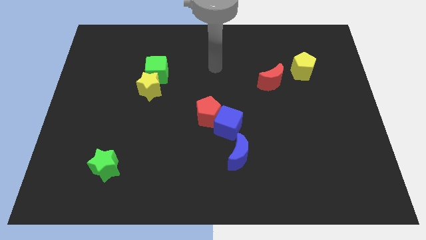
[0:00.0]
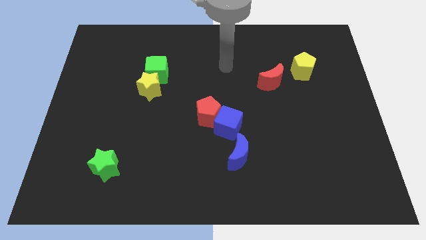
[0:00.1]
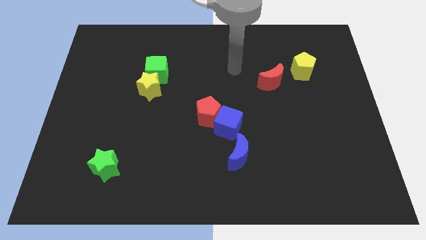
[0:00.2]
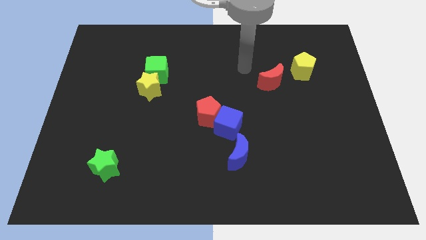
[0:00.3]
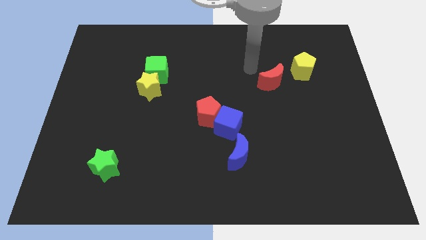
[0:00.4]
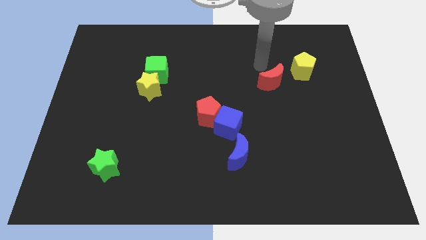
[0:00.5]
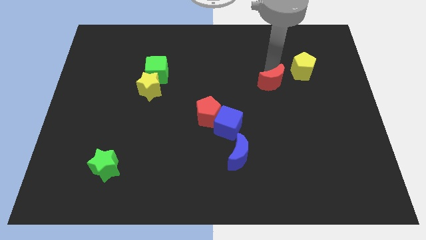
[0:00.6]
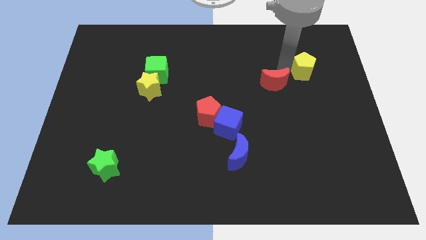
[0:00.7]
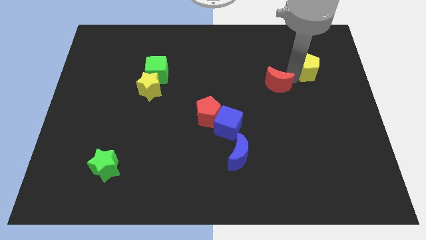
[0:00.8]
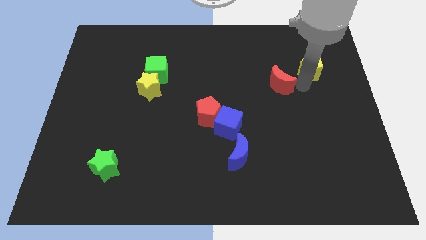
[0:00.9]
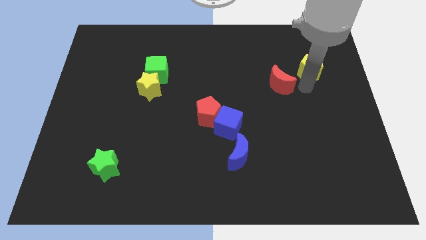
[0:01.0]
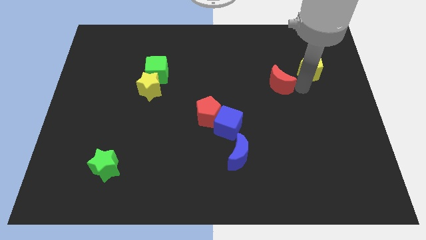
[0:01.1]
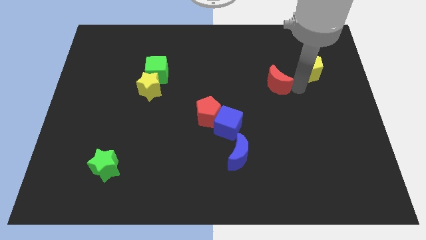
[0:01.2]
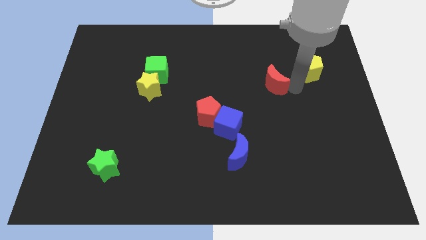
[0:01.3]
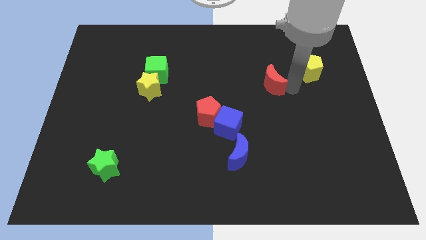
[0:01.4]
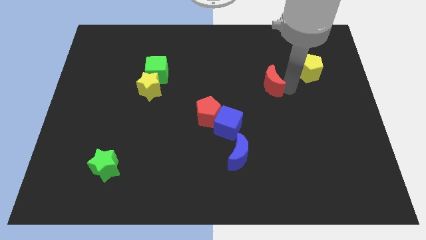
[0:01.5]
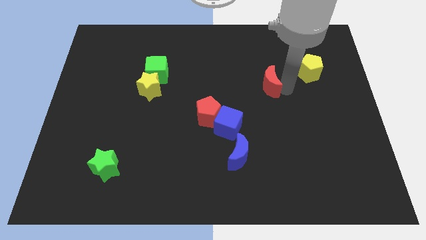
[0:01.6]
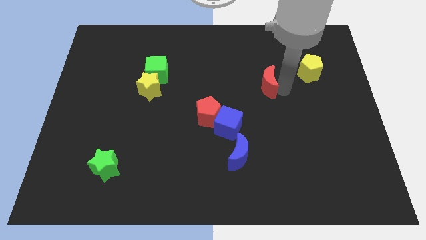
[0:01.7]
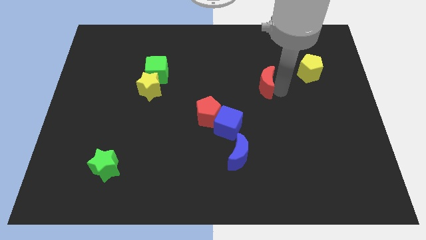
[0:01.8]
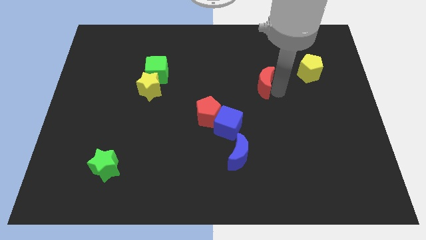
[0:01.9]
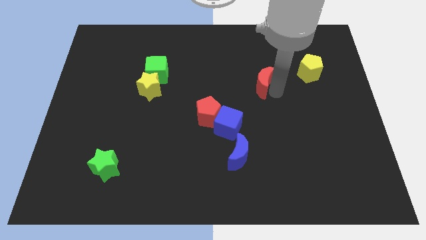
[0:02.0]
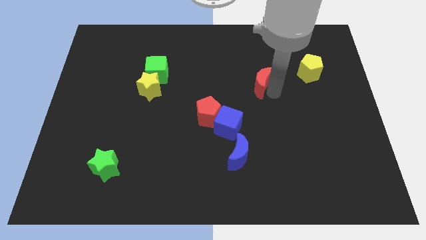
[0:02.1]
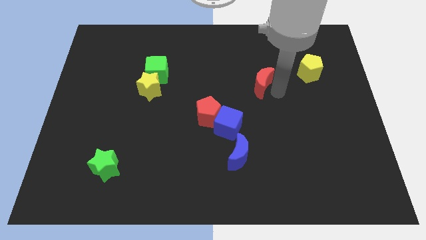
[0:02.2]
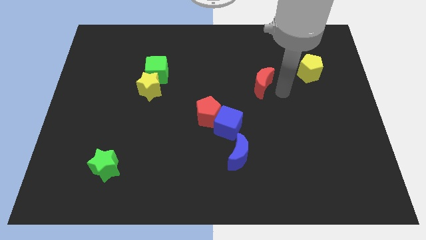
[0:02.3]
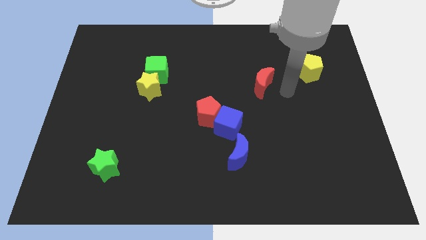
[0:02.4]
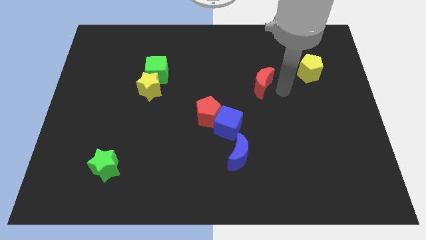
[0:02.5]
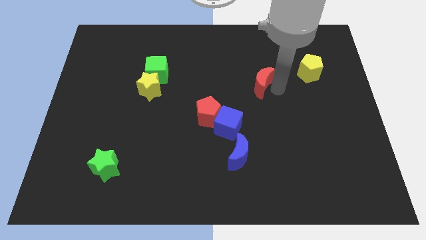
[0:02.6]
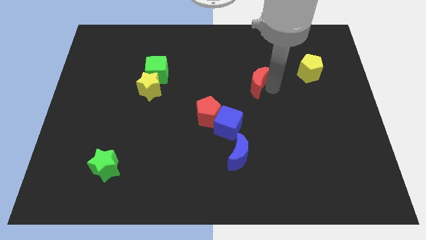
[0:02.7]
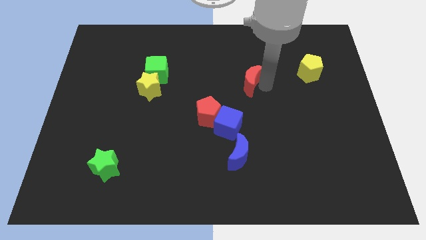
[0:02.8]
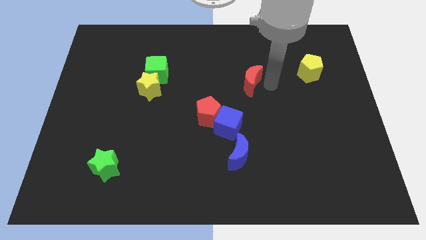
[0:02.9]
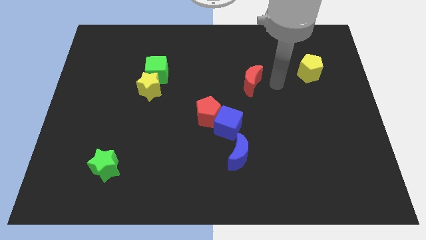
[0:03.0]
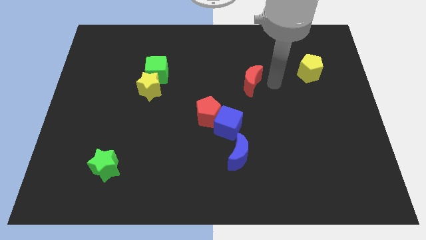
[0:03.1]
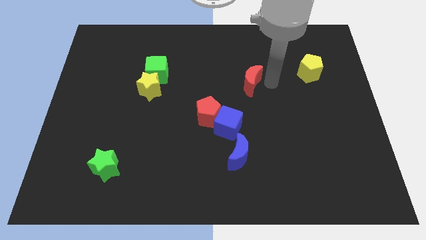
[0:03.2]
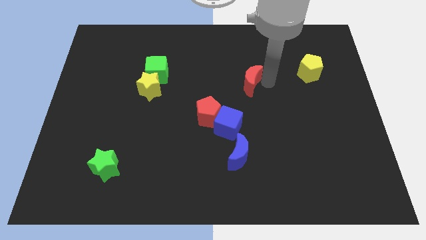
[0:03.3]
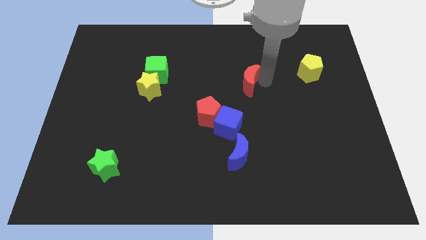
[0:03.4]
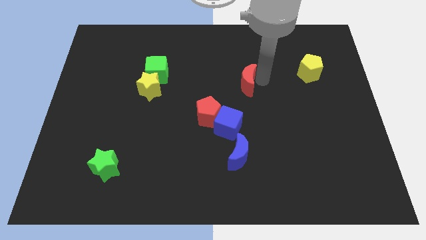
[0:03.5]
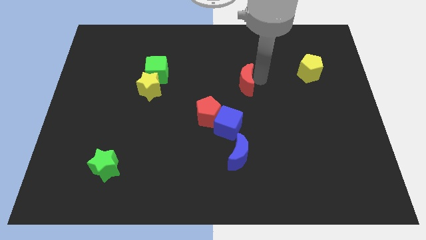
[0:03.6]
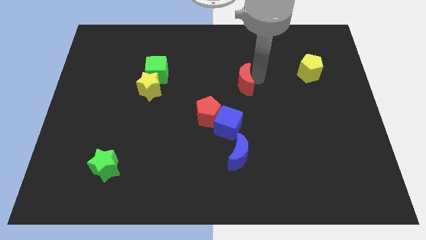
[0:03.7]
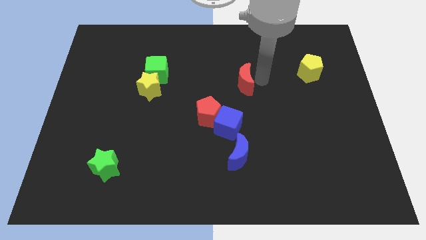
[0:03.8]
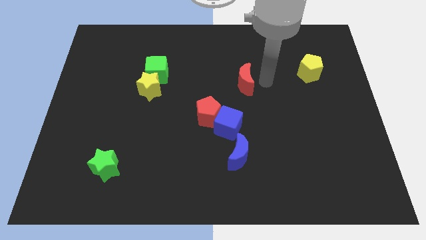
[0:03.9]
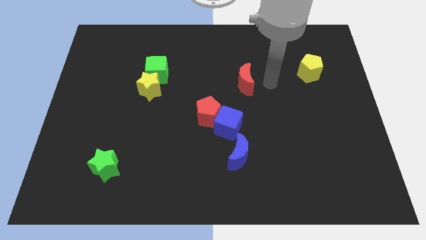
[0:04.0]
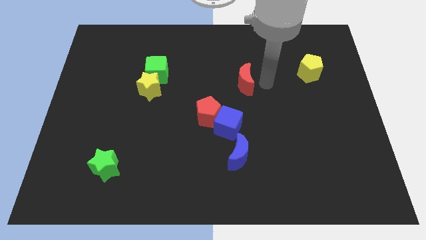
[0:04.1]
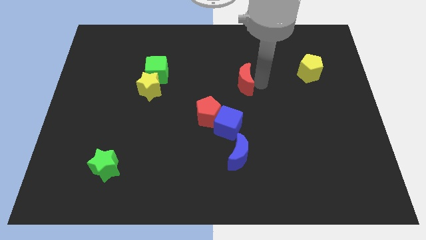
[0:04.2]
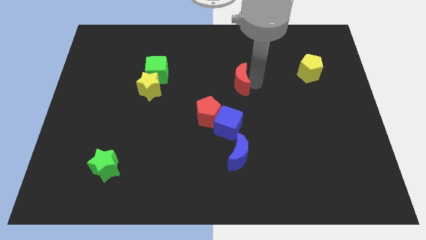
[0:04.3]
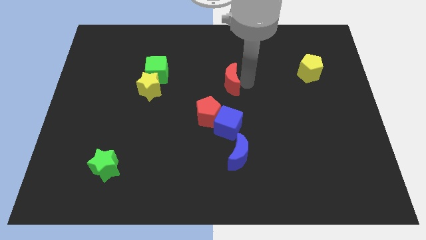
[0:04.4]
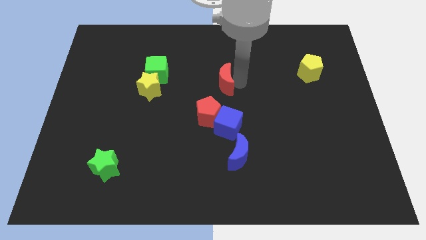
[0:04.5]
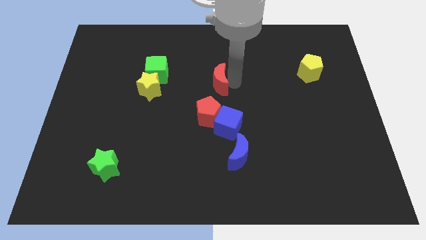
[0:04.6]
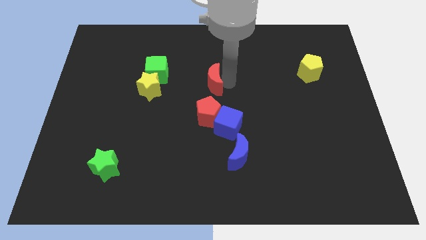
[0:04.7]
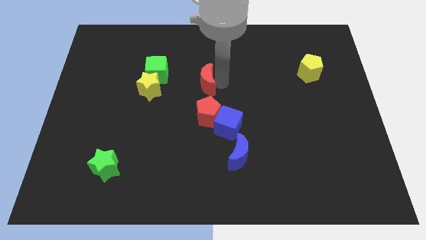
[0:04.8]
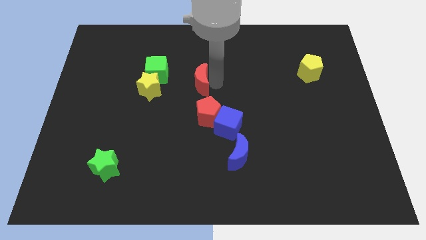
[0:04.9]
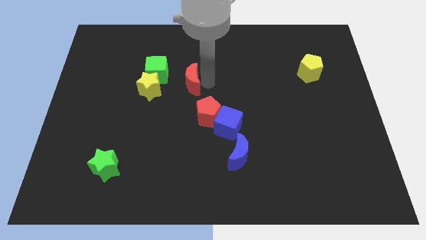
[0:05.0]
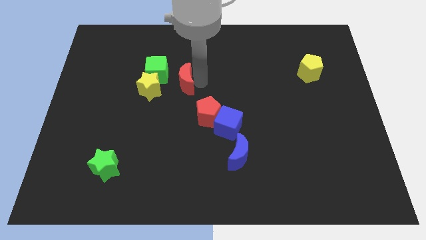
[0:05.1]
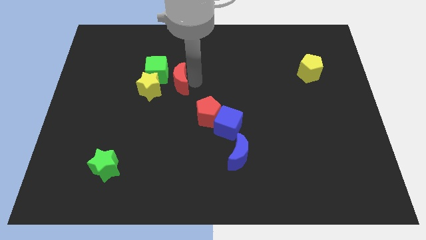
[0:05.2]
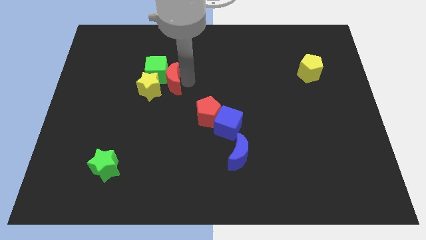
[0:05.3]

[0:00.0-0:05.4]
put the red moon next to the yellow star

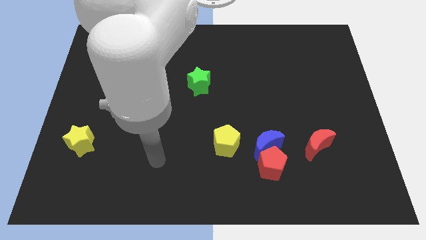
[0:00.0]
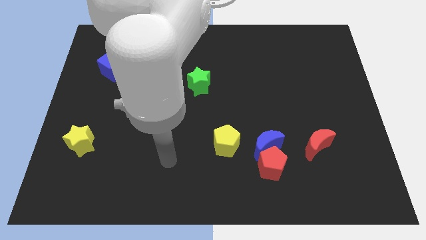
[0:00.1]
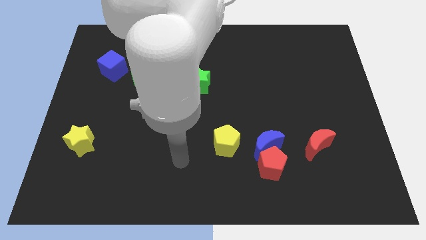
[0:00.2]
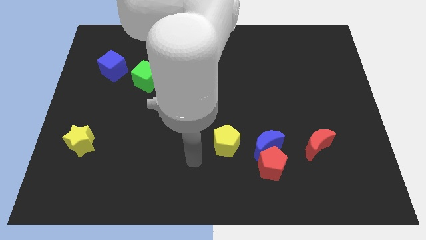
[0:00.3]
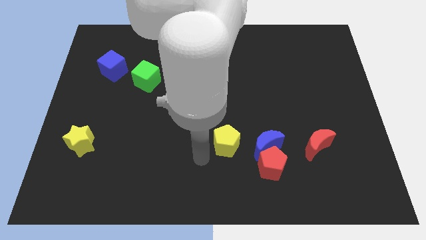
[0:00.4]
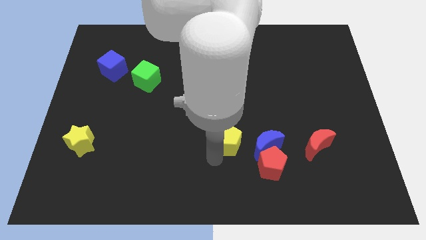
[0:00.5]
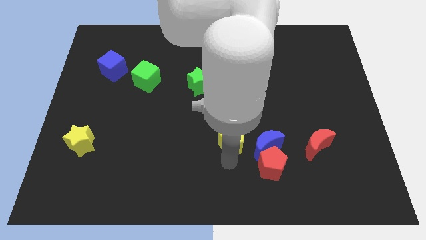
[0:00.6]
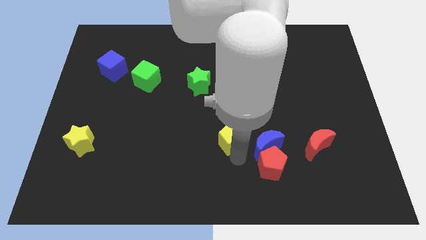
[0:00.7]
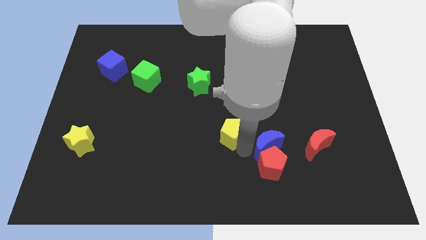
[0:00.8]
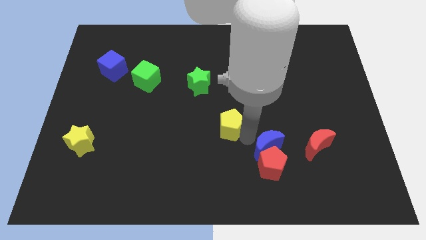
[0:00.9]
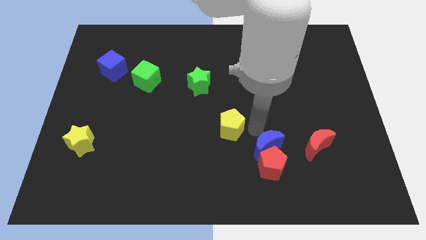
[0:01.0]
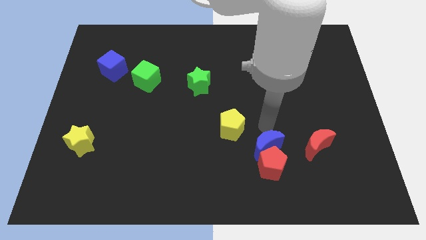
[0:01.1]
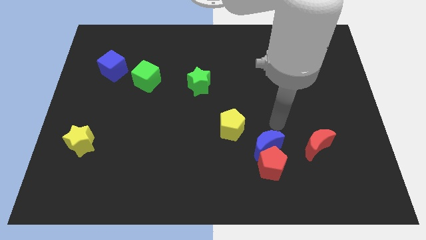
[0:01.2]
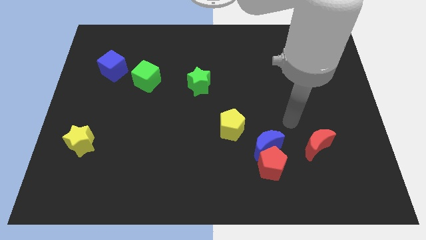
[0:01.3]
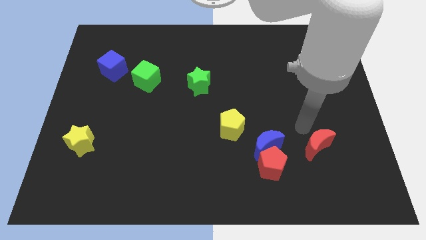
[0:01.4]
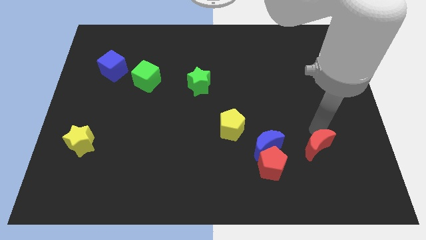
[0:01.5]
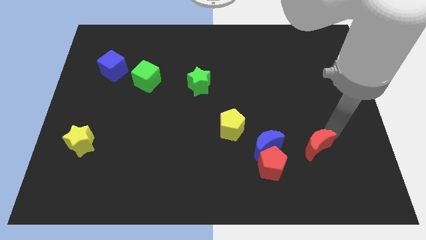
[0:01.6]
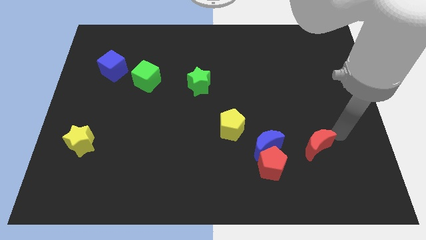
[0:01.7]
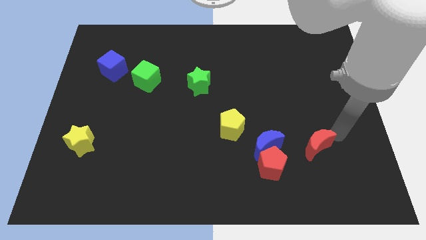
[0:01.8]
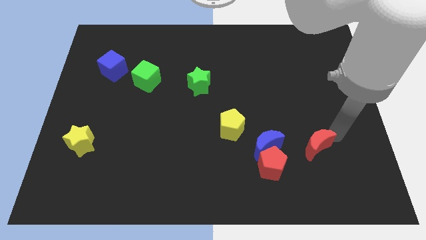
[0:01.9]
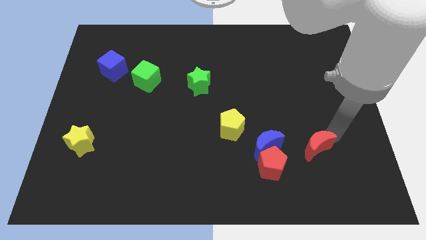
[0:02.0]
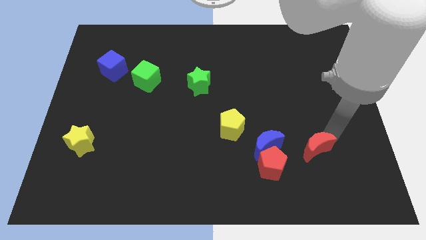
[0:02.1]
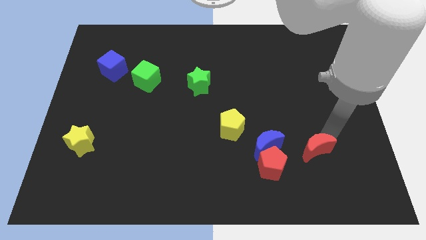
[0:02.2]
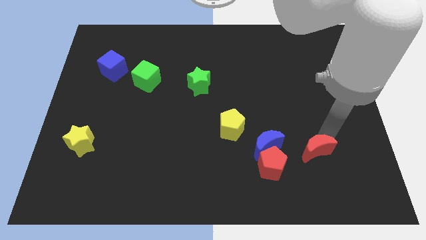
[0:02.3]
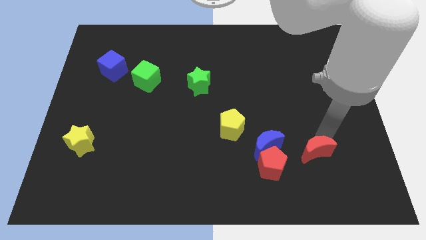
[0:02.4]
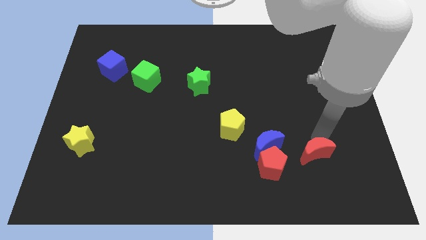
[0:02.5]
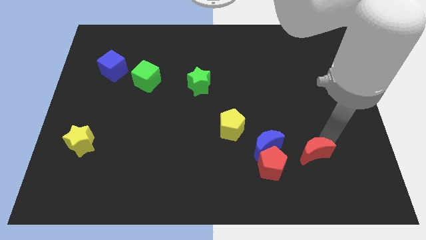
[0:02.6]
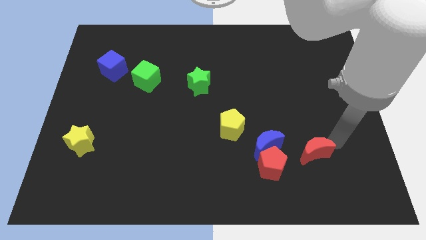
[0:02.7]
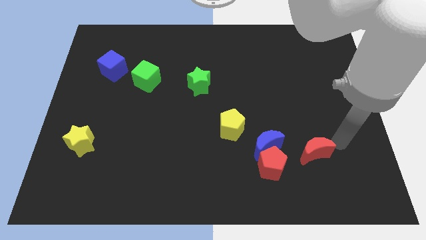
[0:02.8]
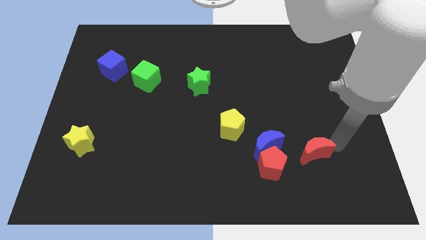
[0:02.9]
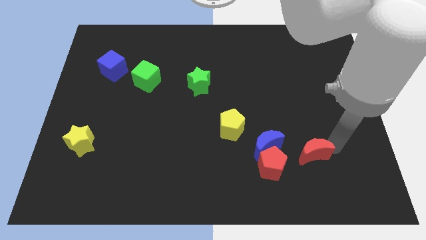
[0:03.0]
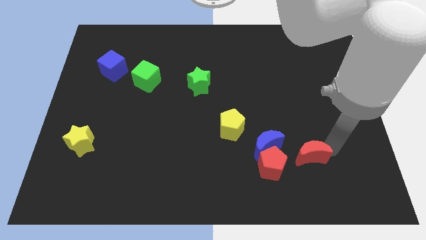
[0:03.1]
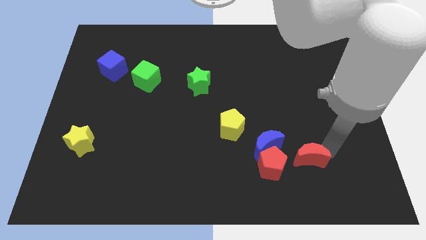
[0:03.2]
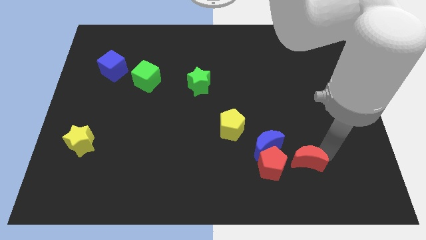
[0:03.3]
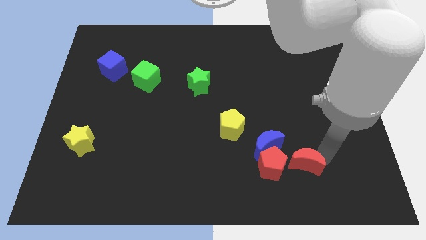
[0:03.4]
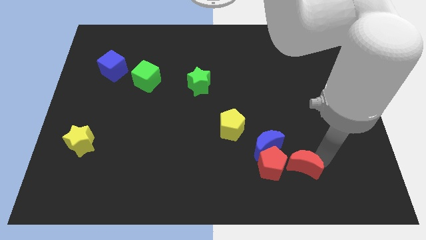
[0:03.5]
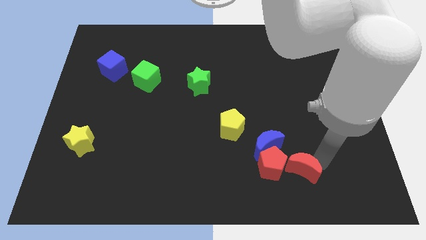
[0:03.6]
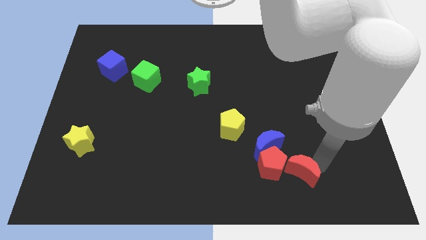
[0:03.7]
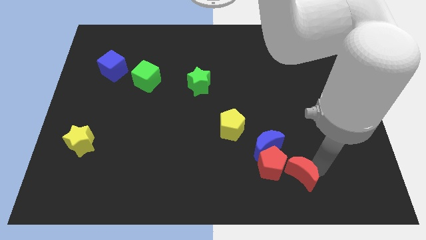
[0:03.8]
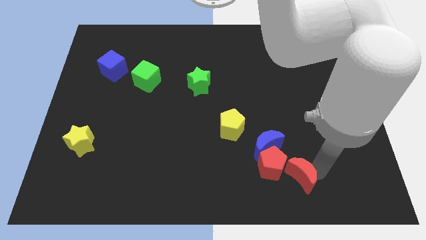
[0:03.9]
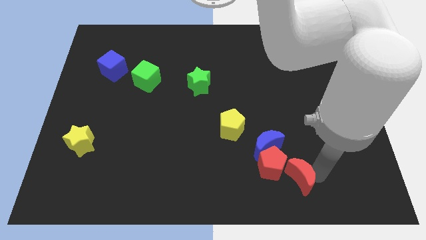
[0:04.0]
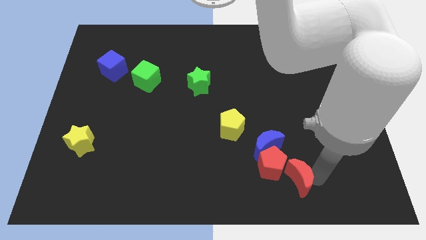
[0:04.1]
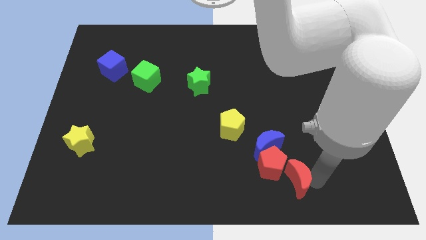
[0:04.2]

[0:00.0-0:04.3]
slide the red moon next to the red pentagon
